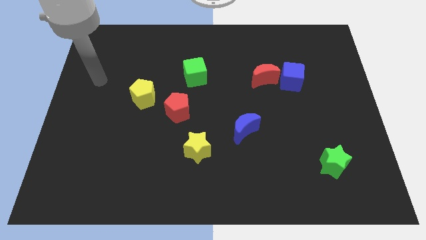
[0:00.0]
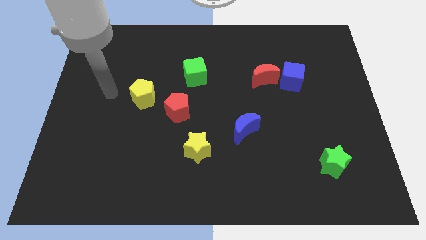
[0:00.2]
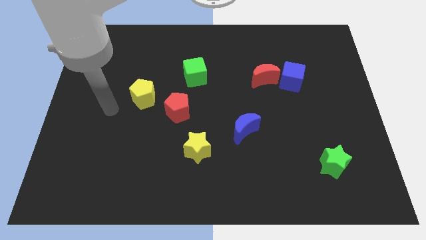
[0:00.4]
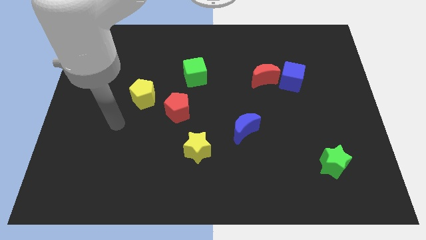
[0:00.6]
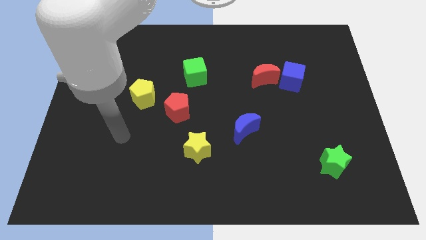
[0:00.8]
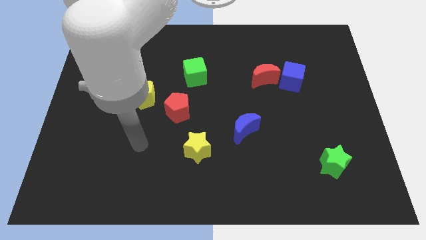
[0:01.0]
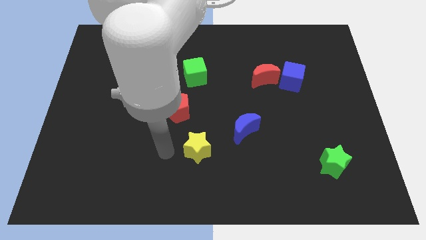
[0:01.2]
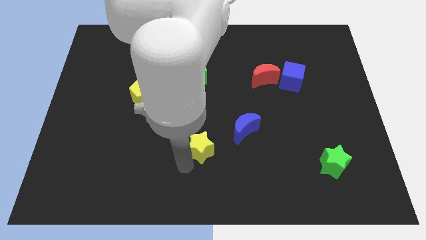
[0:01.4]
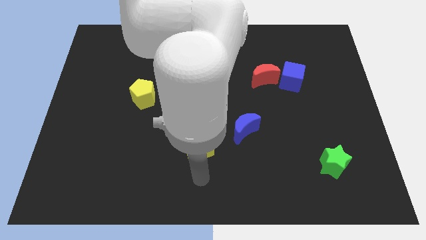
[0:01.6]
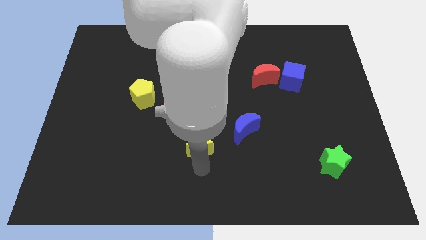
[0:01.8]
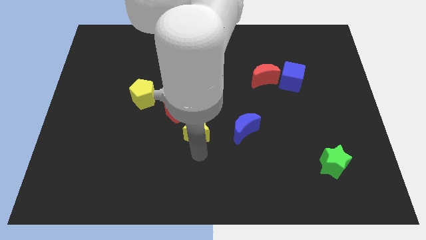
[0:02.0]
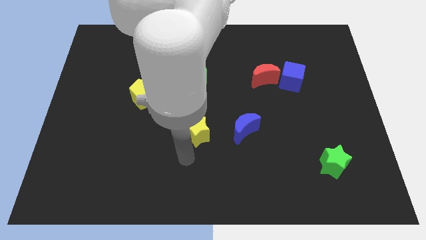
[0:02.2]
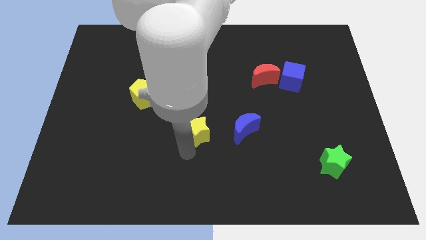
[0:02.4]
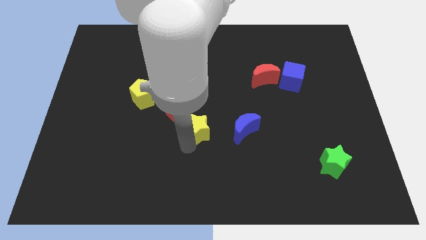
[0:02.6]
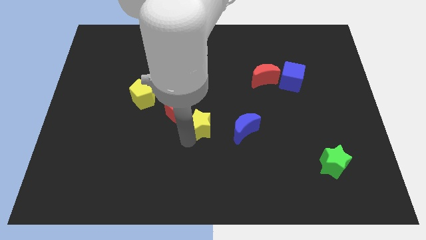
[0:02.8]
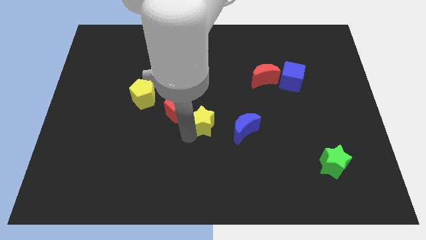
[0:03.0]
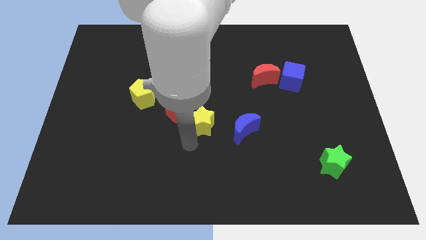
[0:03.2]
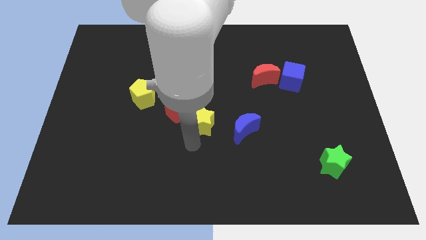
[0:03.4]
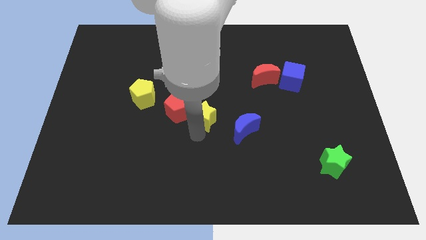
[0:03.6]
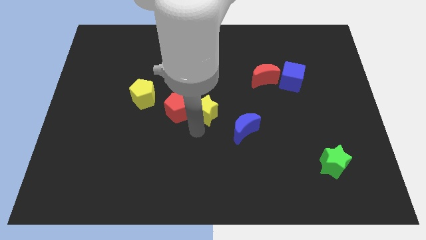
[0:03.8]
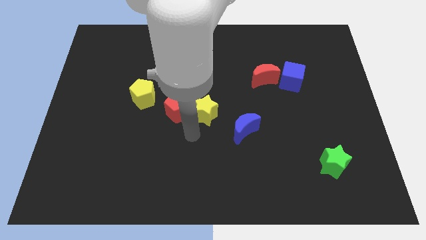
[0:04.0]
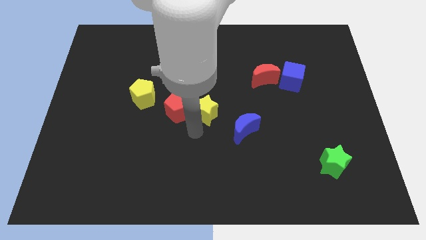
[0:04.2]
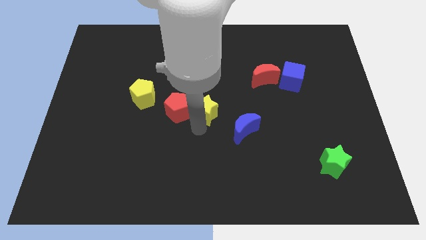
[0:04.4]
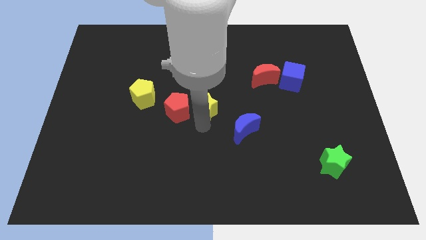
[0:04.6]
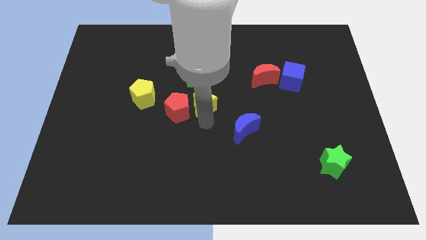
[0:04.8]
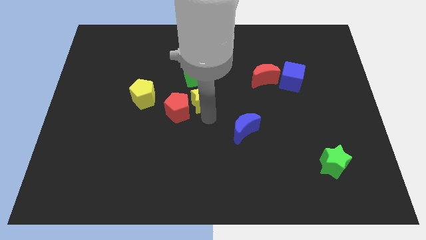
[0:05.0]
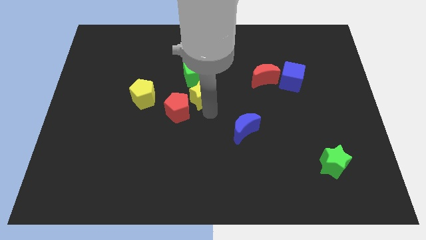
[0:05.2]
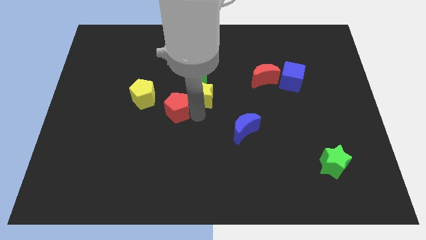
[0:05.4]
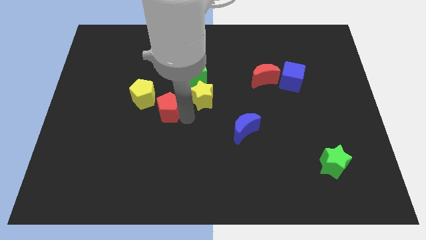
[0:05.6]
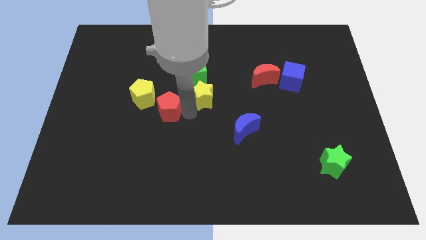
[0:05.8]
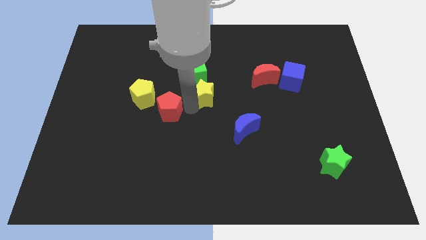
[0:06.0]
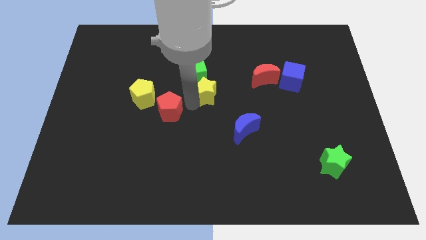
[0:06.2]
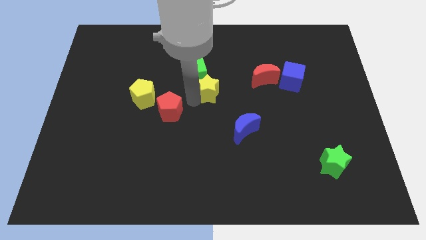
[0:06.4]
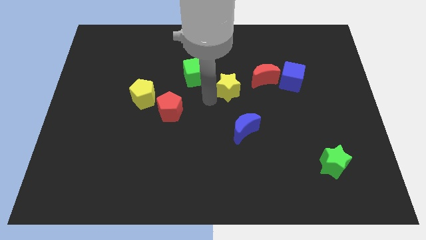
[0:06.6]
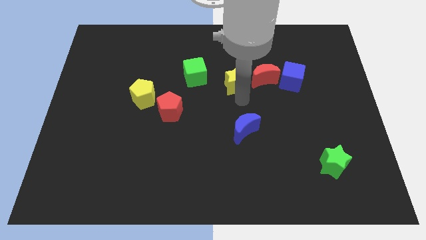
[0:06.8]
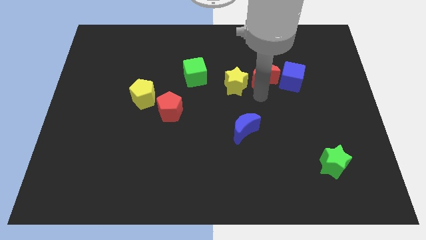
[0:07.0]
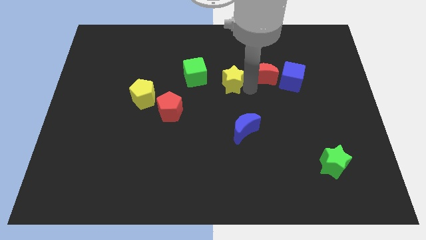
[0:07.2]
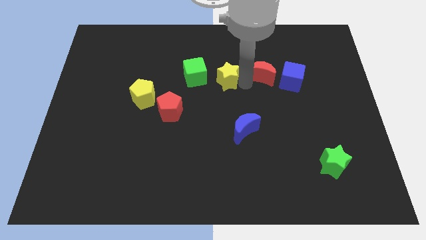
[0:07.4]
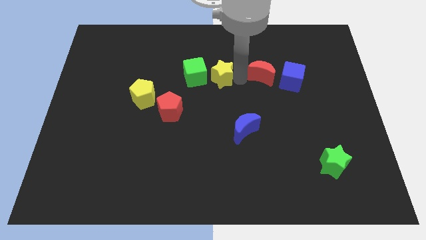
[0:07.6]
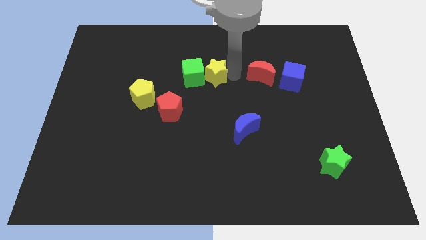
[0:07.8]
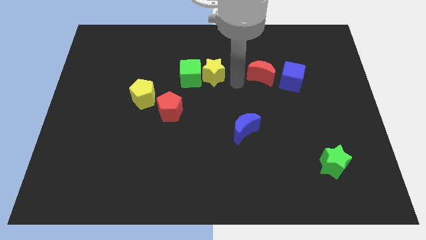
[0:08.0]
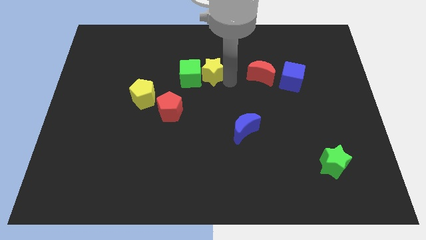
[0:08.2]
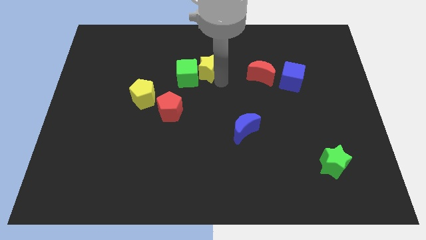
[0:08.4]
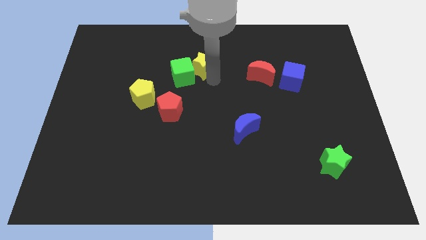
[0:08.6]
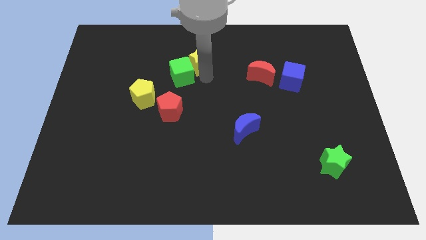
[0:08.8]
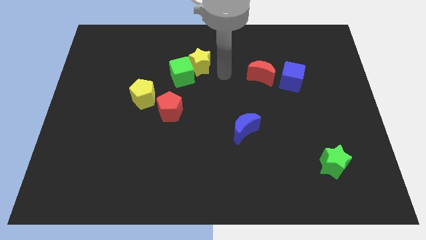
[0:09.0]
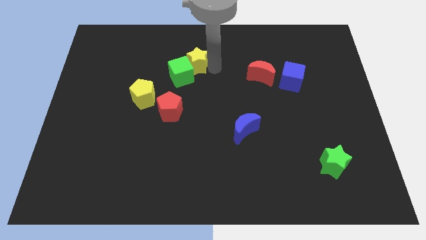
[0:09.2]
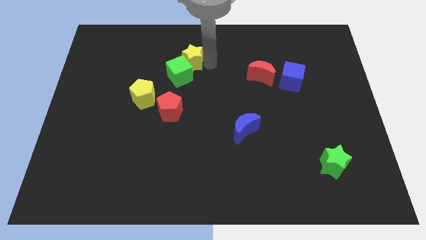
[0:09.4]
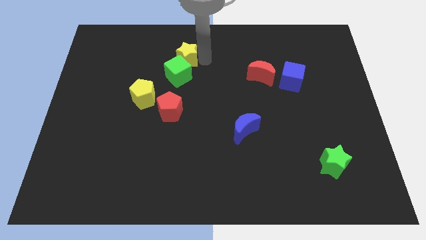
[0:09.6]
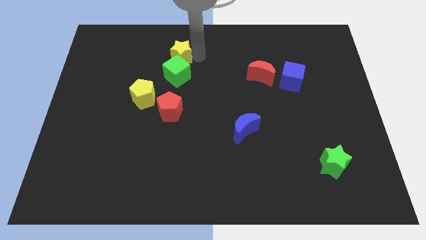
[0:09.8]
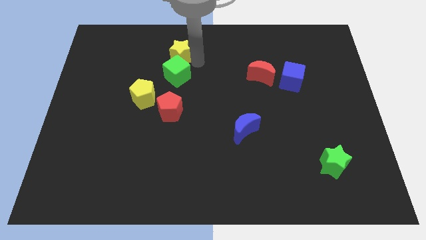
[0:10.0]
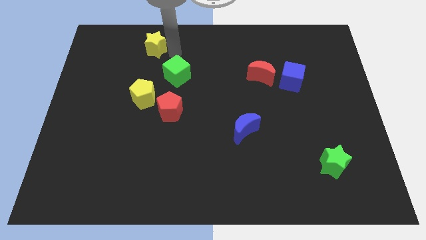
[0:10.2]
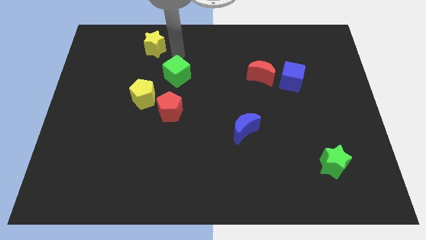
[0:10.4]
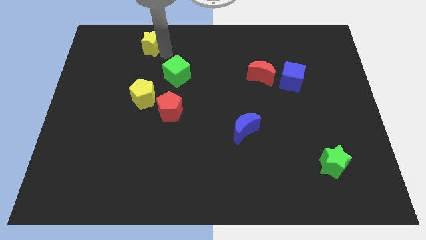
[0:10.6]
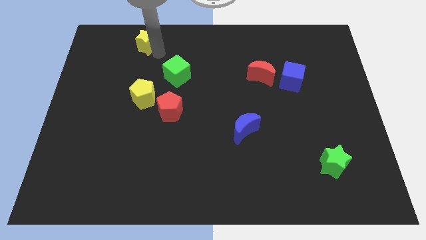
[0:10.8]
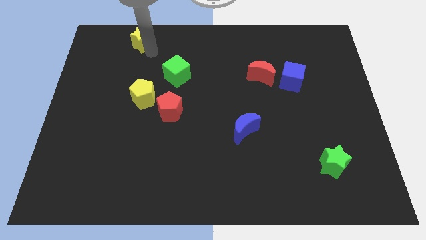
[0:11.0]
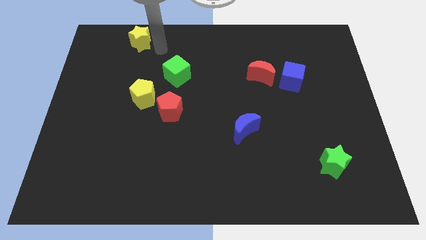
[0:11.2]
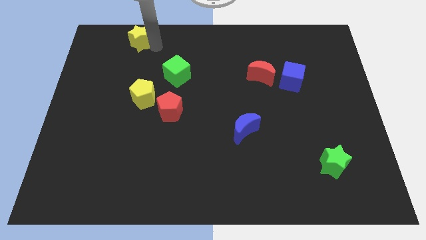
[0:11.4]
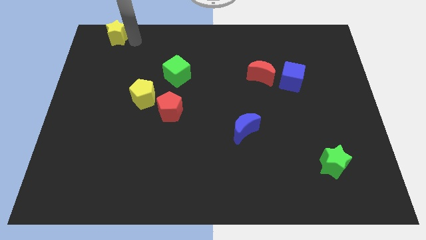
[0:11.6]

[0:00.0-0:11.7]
push the yellow star to the top left corner

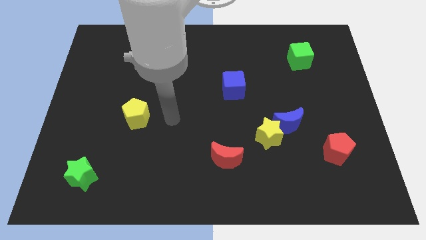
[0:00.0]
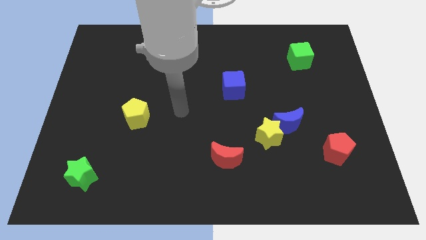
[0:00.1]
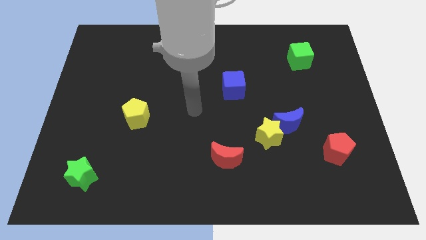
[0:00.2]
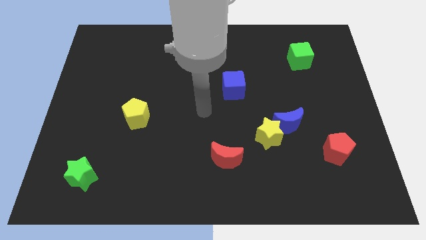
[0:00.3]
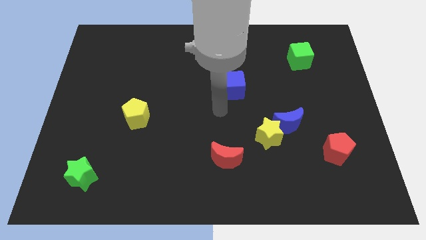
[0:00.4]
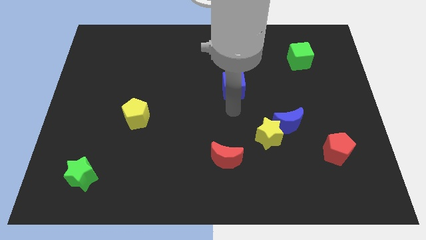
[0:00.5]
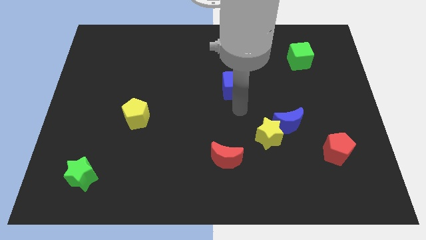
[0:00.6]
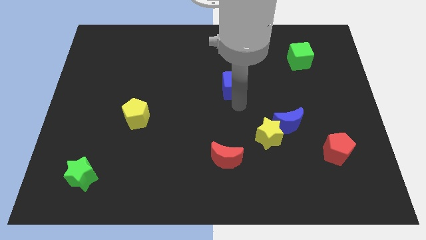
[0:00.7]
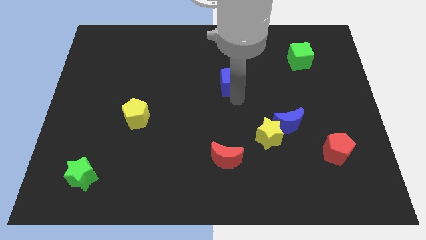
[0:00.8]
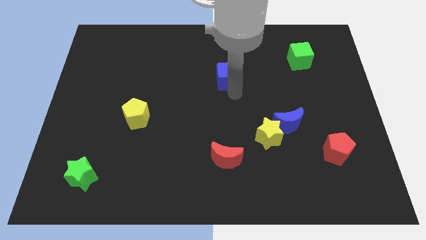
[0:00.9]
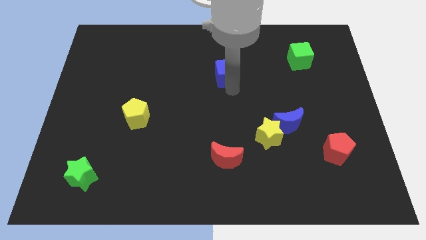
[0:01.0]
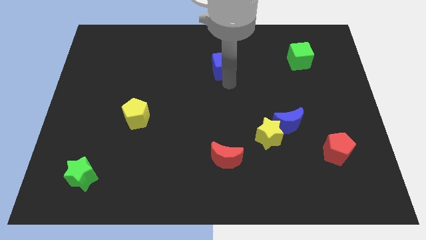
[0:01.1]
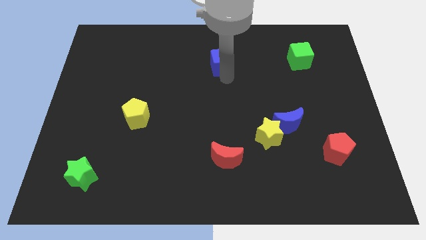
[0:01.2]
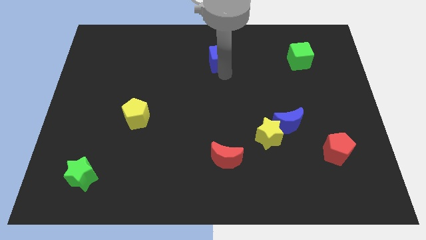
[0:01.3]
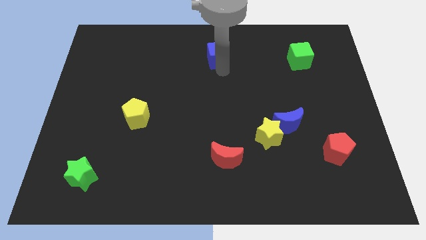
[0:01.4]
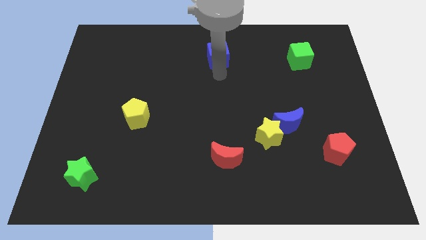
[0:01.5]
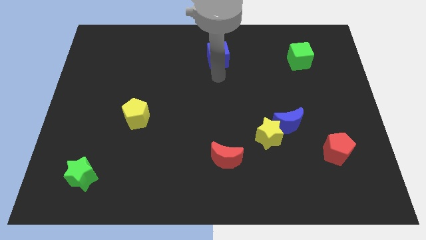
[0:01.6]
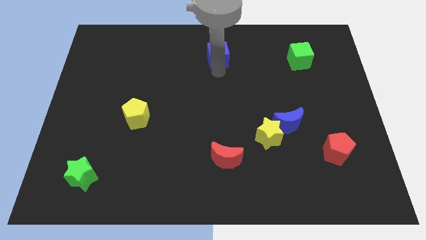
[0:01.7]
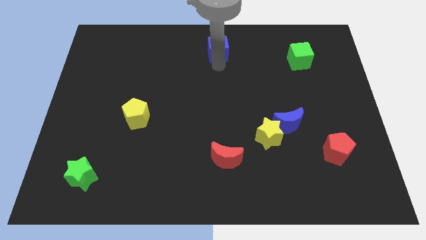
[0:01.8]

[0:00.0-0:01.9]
put the blue cube to the towards your base

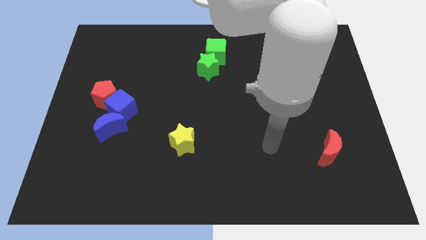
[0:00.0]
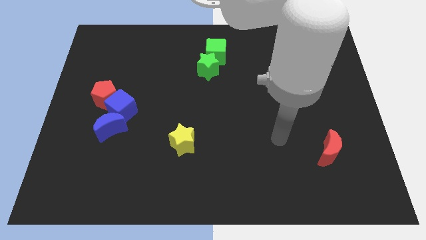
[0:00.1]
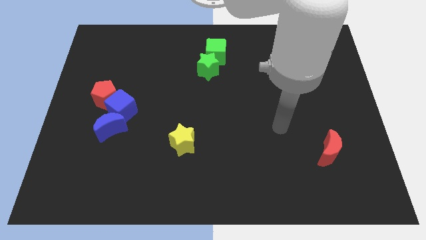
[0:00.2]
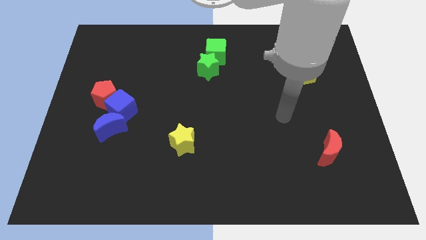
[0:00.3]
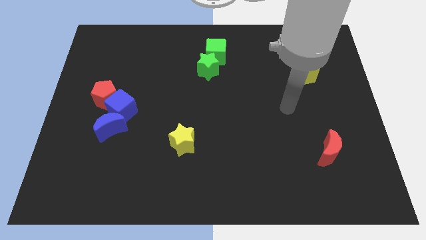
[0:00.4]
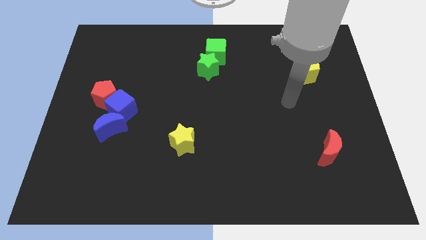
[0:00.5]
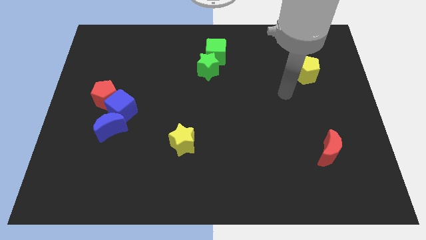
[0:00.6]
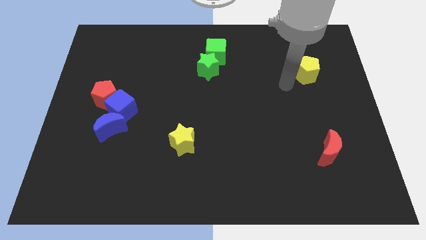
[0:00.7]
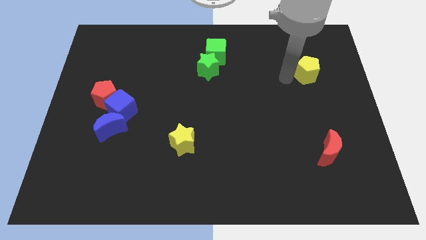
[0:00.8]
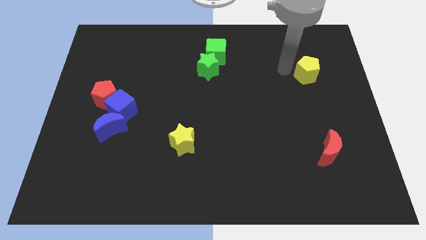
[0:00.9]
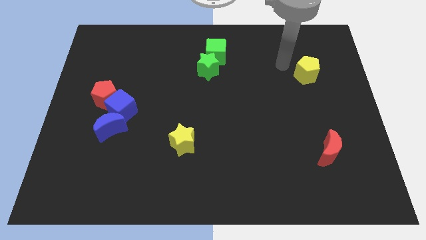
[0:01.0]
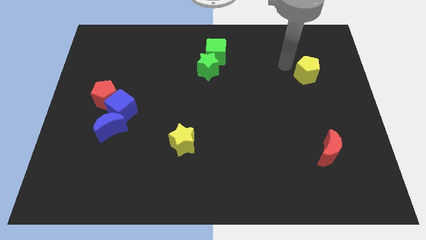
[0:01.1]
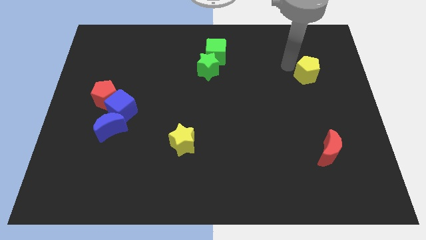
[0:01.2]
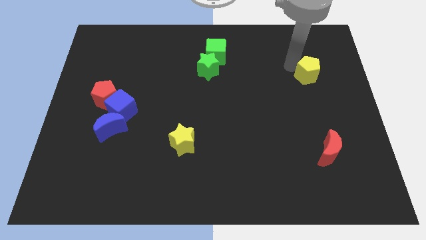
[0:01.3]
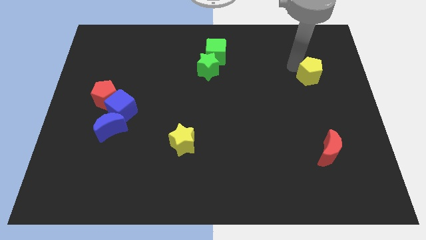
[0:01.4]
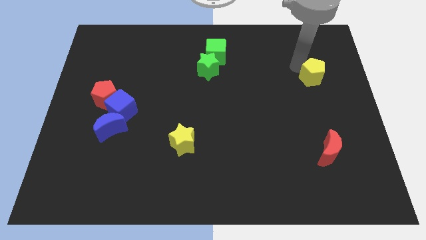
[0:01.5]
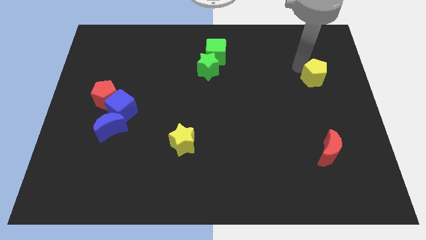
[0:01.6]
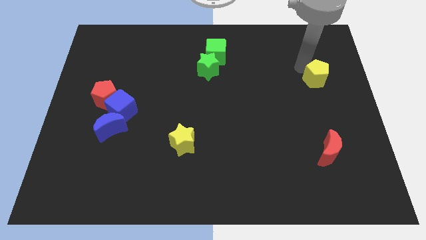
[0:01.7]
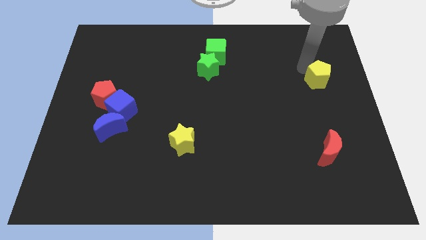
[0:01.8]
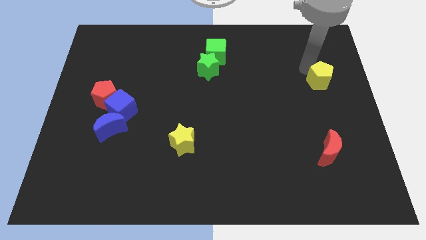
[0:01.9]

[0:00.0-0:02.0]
slide the yellow pentagon to the center right
